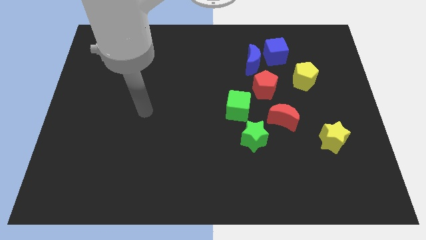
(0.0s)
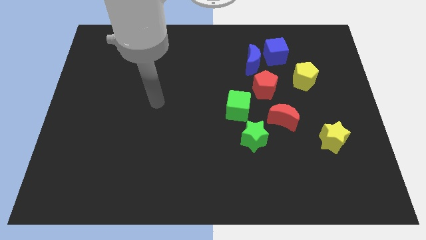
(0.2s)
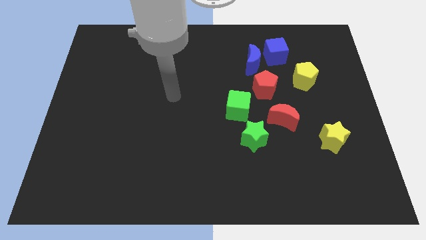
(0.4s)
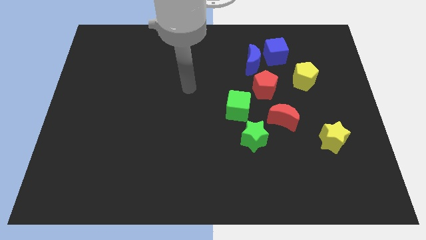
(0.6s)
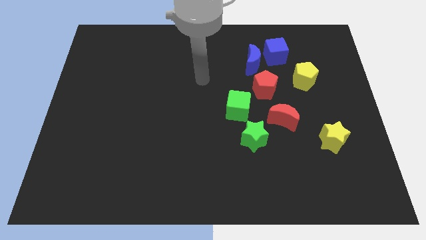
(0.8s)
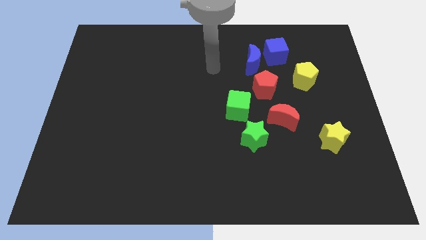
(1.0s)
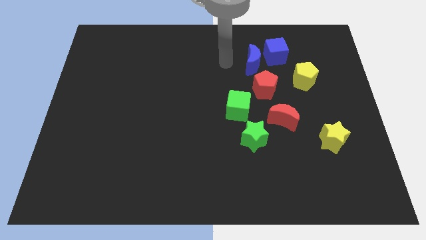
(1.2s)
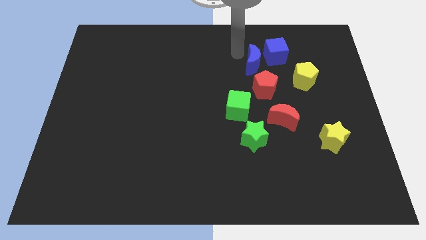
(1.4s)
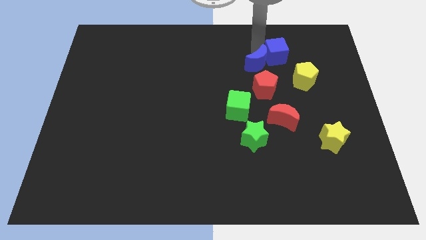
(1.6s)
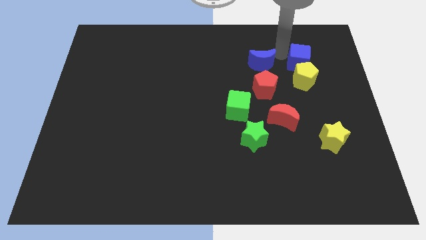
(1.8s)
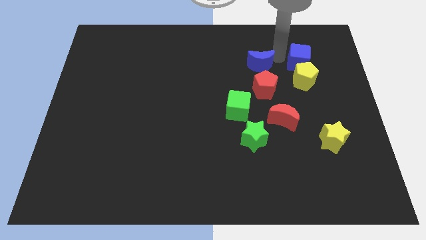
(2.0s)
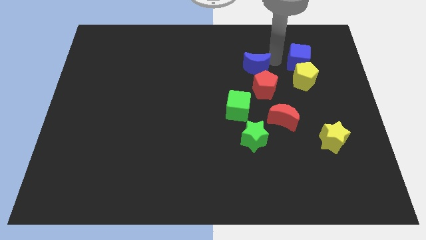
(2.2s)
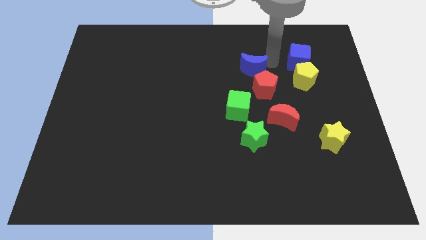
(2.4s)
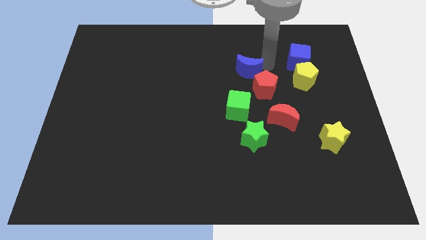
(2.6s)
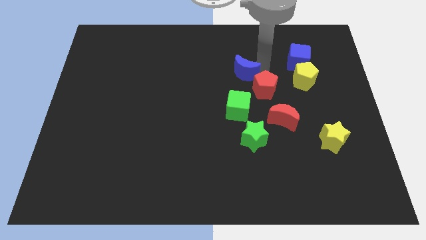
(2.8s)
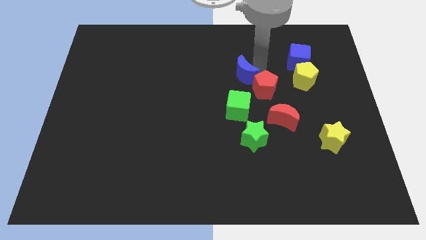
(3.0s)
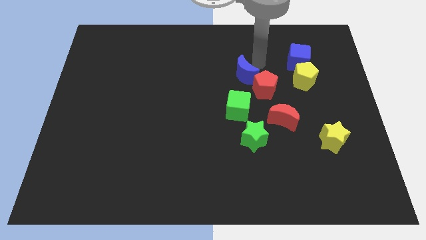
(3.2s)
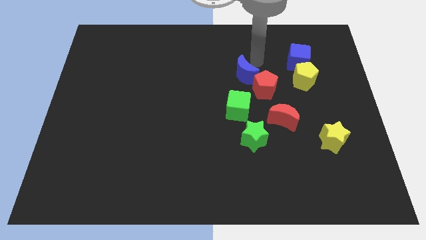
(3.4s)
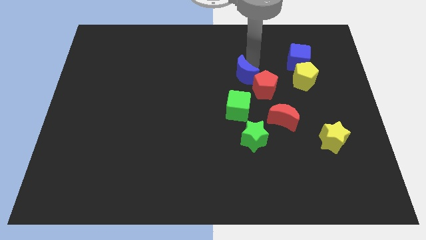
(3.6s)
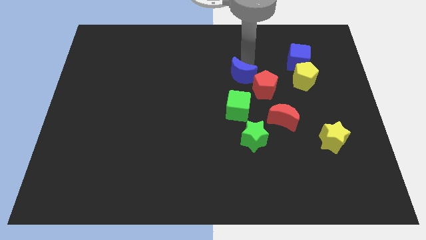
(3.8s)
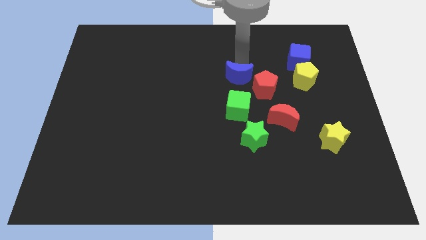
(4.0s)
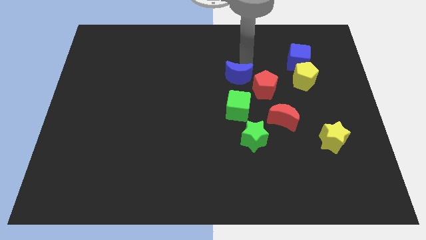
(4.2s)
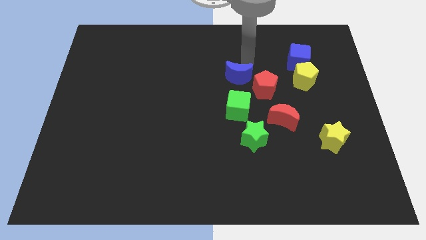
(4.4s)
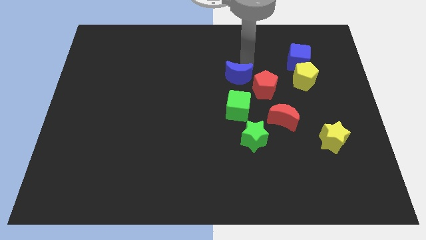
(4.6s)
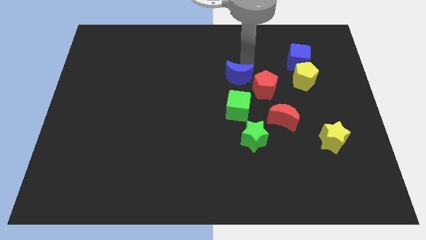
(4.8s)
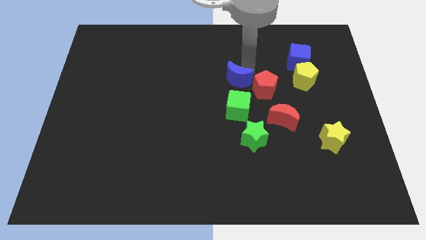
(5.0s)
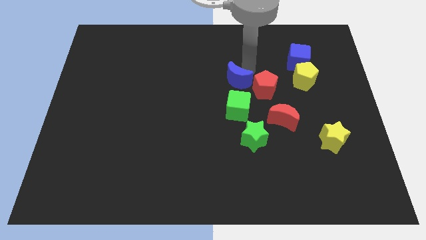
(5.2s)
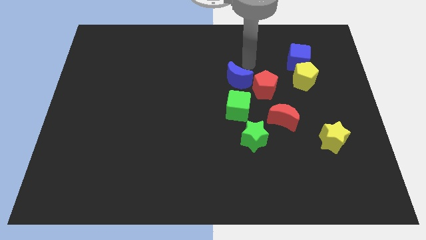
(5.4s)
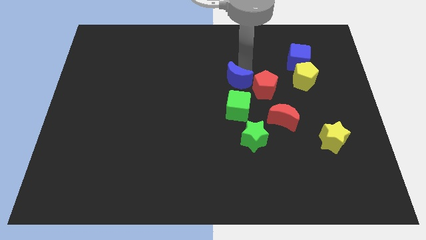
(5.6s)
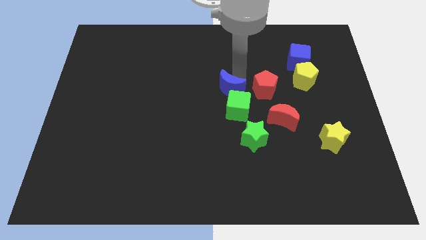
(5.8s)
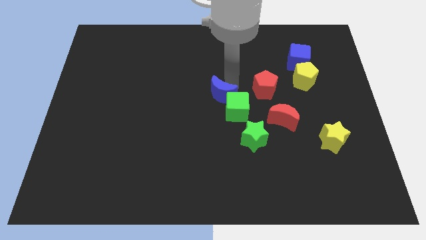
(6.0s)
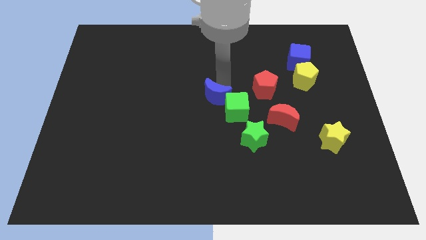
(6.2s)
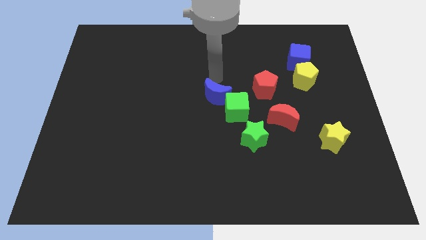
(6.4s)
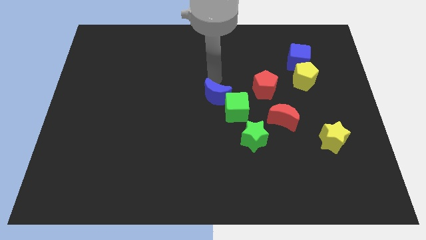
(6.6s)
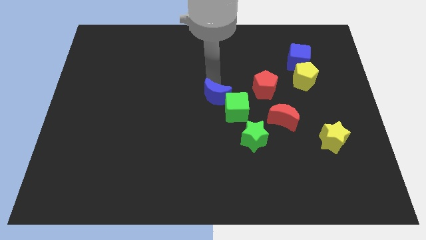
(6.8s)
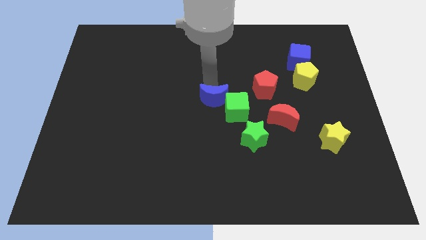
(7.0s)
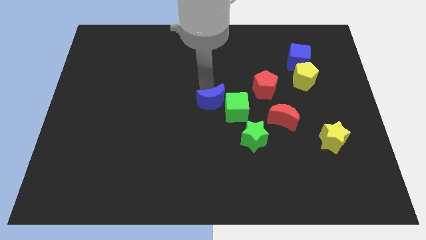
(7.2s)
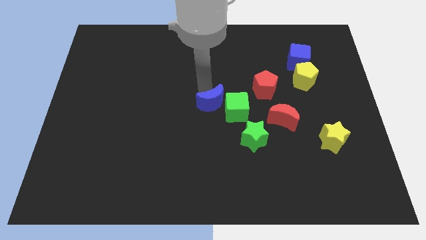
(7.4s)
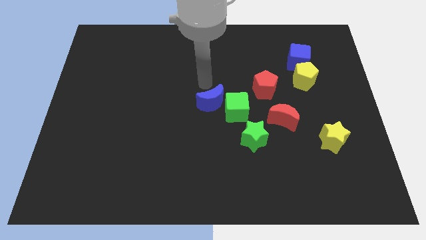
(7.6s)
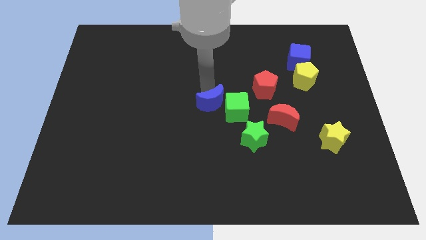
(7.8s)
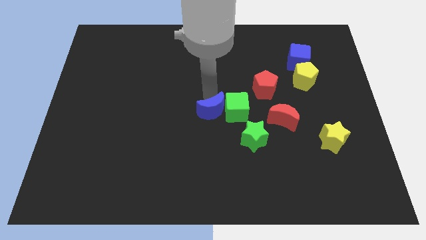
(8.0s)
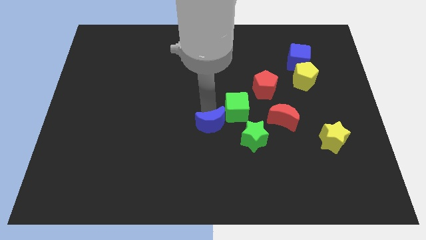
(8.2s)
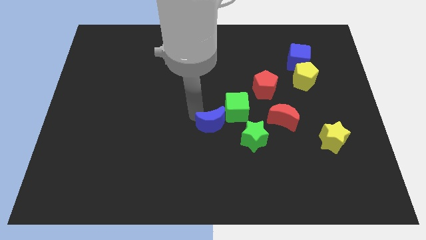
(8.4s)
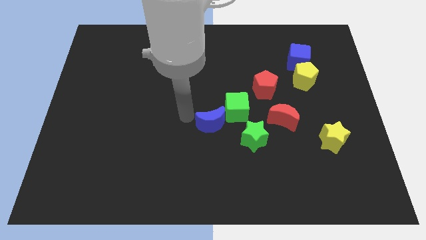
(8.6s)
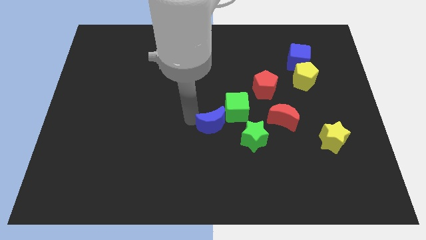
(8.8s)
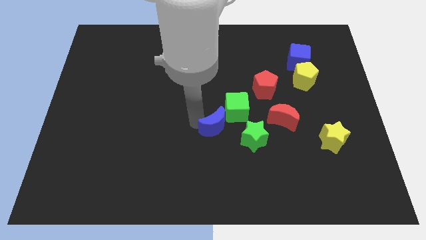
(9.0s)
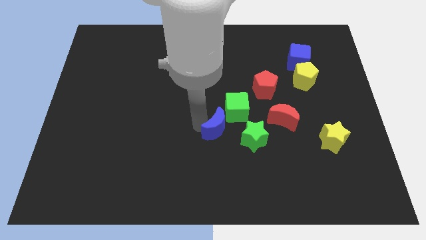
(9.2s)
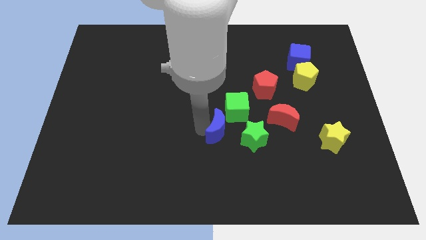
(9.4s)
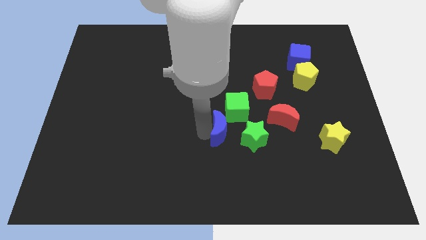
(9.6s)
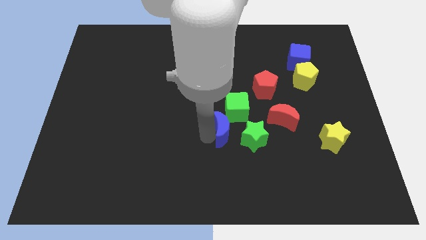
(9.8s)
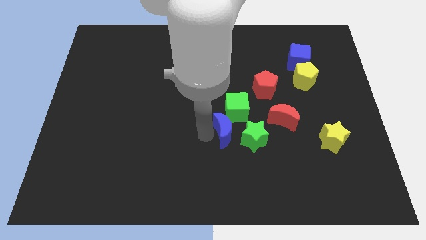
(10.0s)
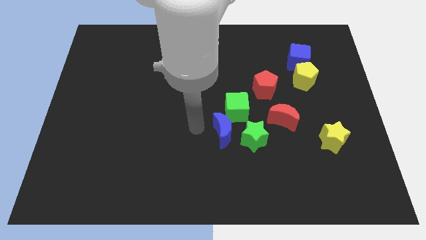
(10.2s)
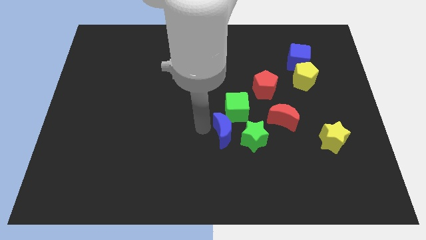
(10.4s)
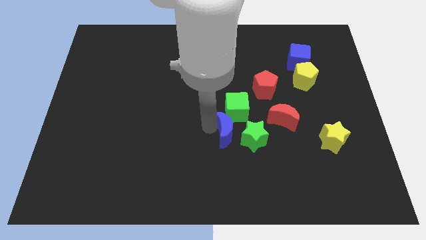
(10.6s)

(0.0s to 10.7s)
put the blue moon close to the green star

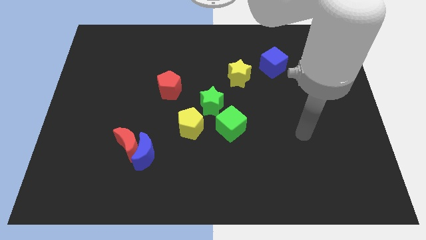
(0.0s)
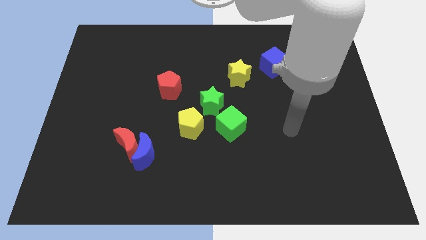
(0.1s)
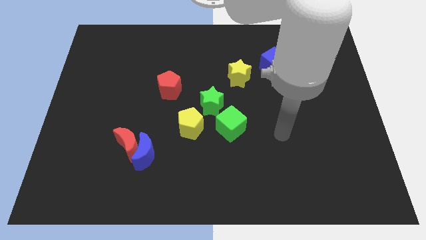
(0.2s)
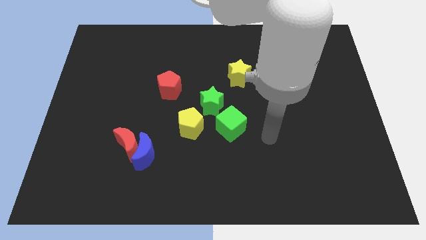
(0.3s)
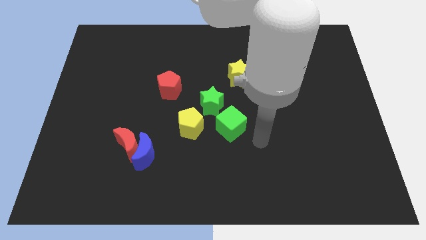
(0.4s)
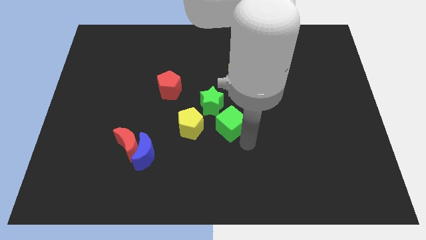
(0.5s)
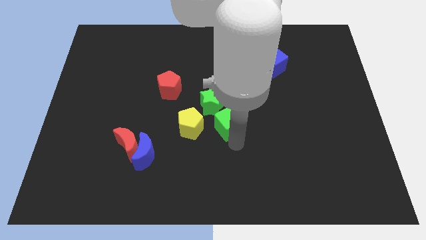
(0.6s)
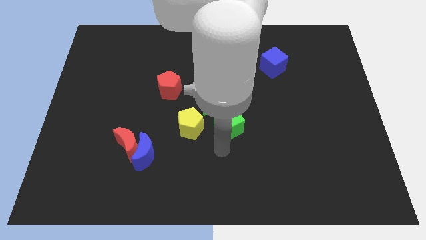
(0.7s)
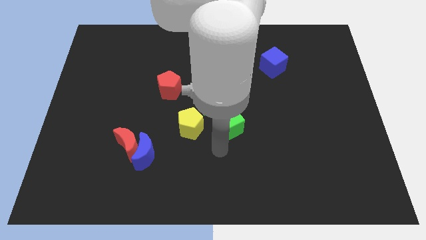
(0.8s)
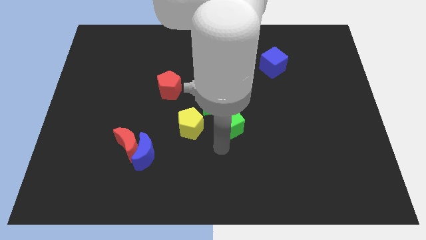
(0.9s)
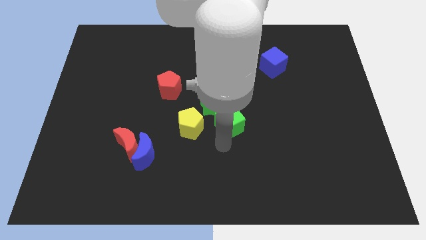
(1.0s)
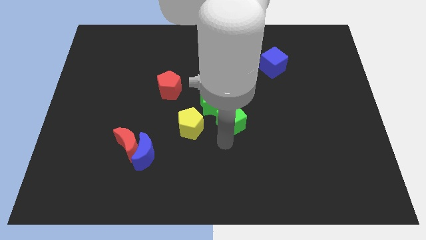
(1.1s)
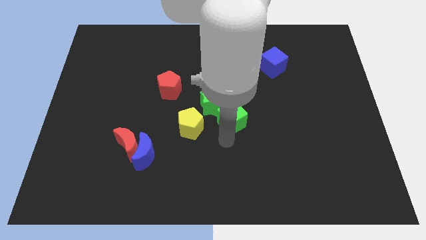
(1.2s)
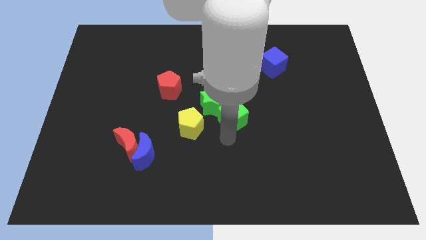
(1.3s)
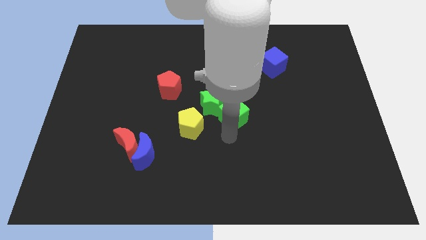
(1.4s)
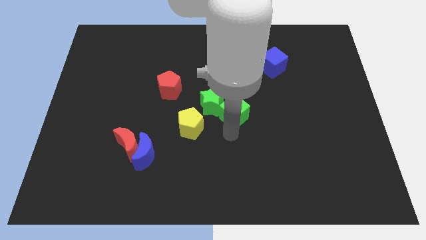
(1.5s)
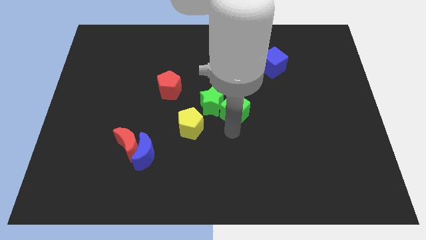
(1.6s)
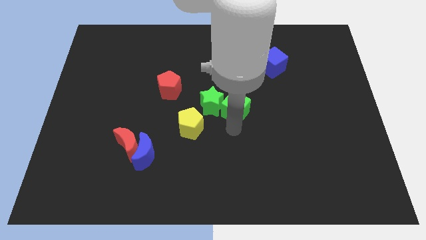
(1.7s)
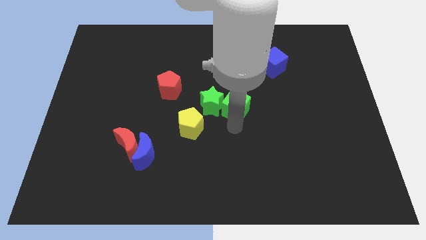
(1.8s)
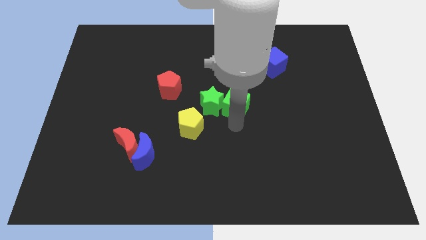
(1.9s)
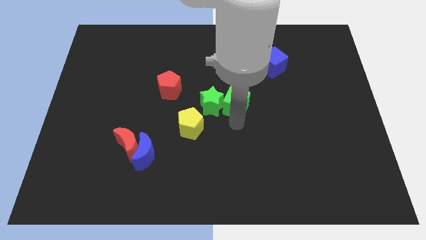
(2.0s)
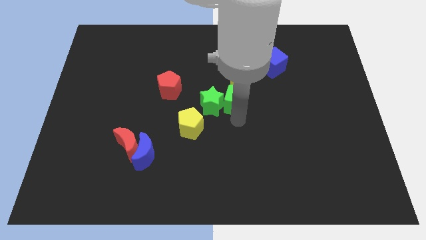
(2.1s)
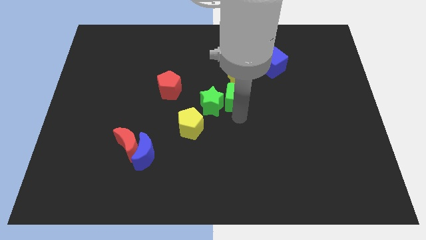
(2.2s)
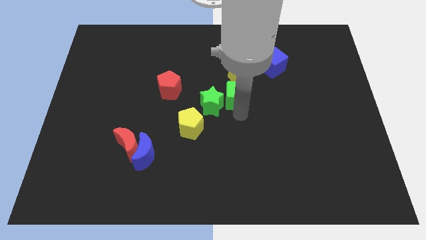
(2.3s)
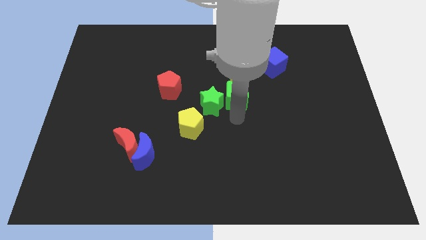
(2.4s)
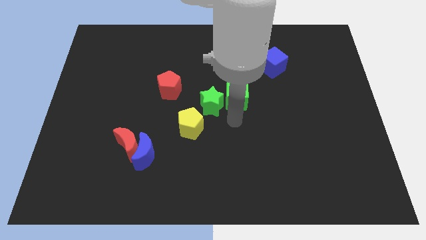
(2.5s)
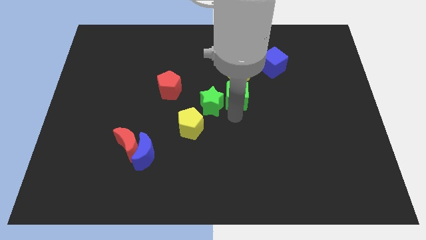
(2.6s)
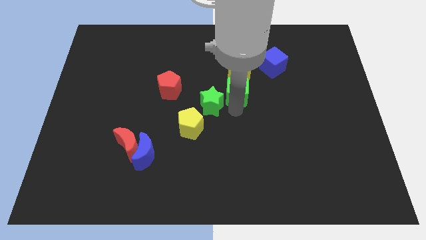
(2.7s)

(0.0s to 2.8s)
slide the green cube close to the yellow star
